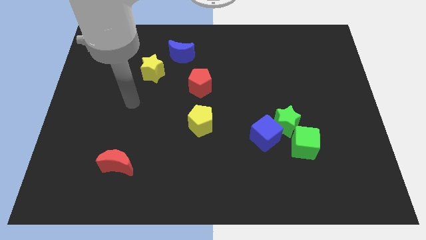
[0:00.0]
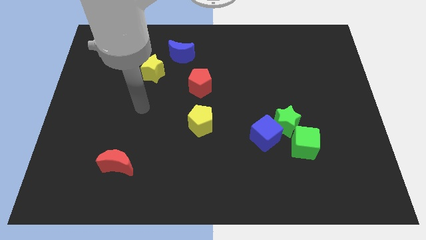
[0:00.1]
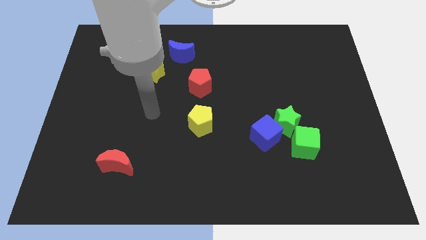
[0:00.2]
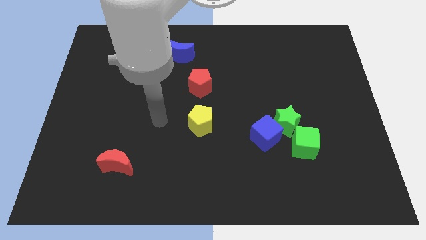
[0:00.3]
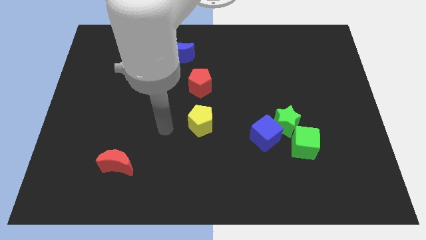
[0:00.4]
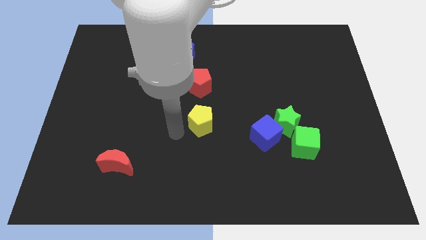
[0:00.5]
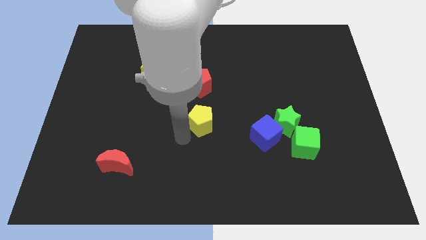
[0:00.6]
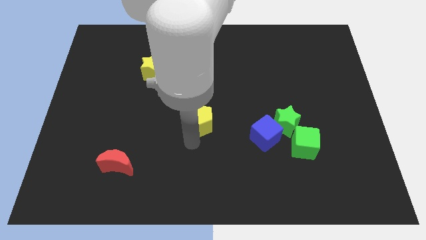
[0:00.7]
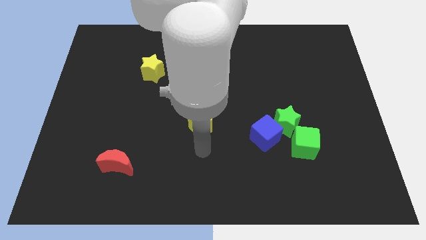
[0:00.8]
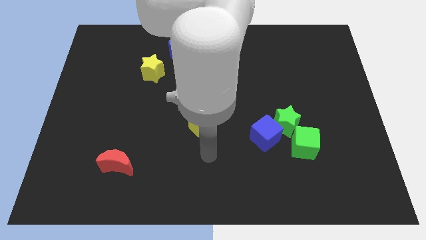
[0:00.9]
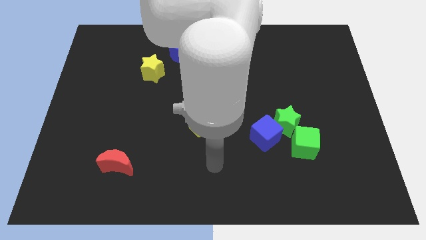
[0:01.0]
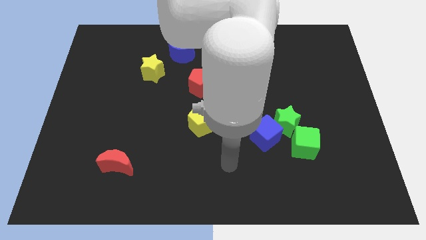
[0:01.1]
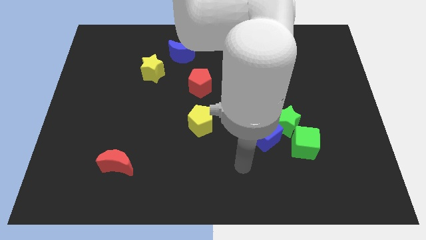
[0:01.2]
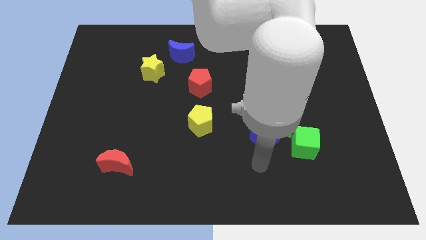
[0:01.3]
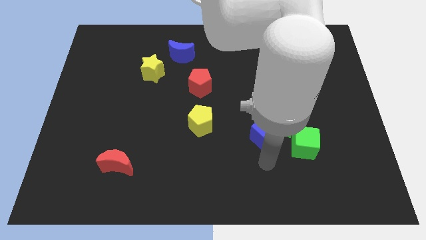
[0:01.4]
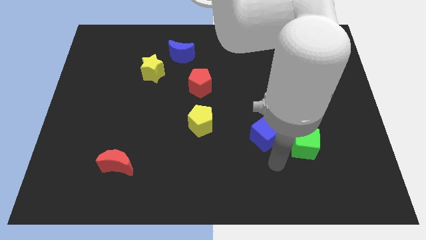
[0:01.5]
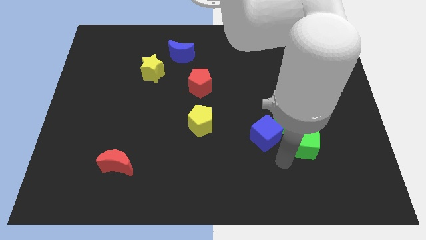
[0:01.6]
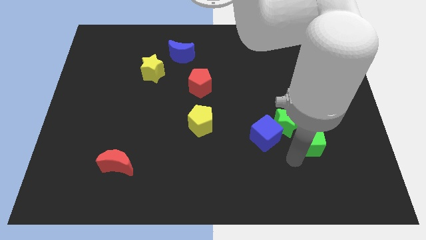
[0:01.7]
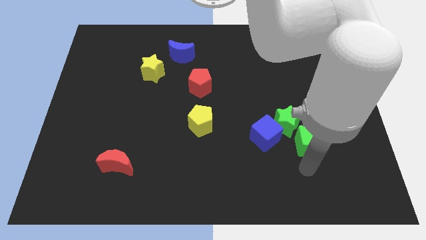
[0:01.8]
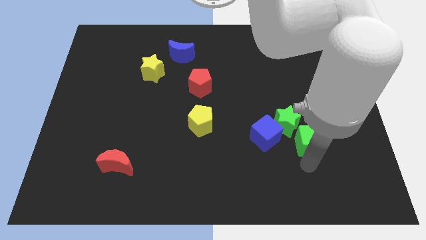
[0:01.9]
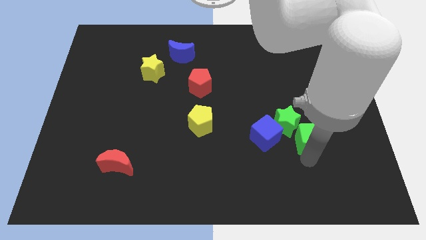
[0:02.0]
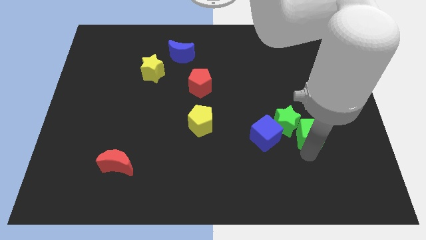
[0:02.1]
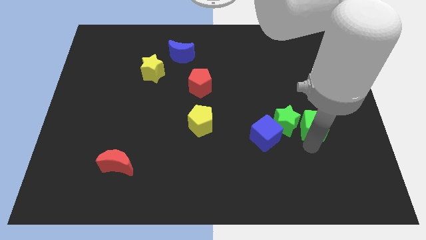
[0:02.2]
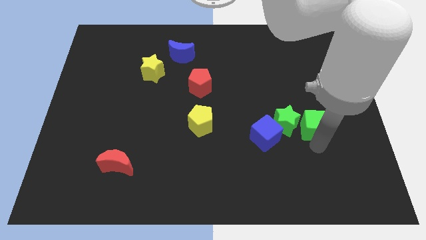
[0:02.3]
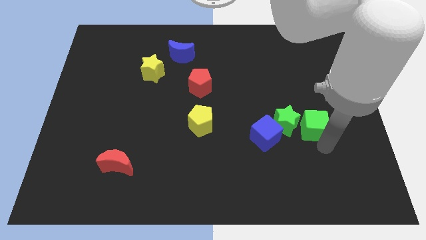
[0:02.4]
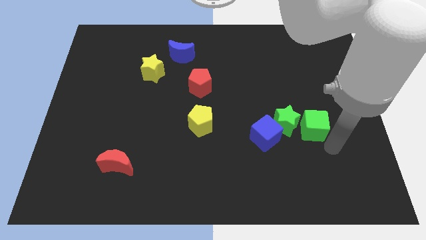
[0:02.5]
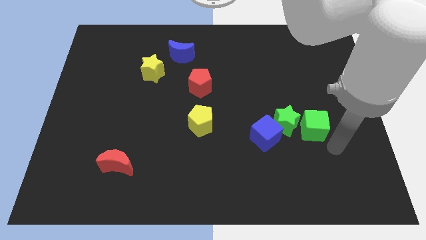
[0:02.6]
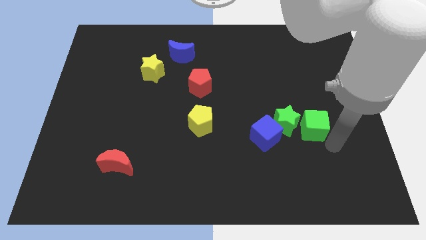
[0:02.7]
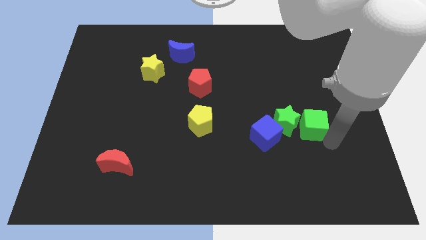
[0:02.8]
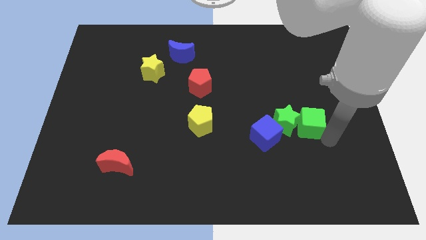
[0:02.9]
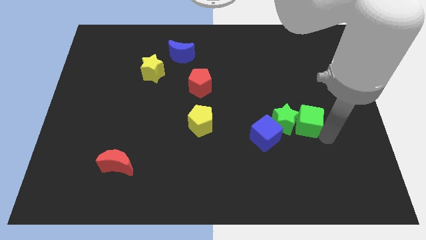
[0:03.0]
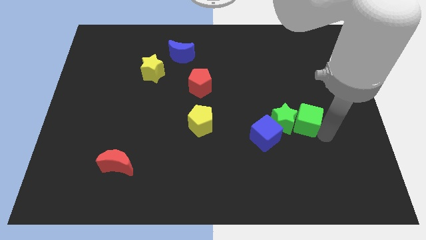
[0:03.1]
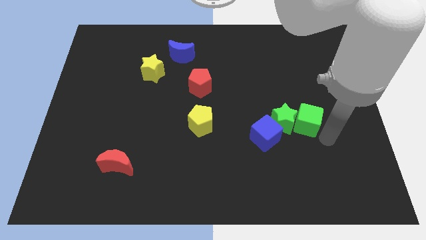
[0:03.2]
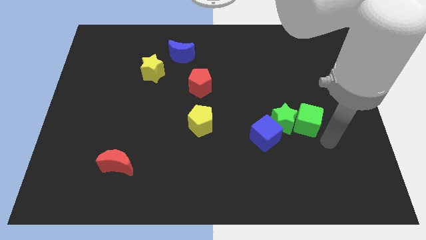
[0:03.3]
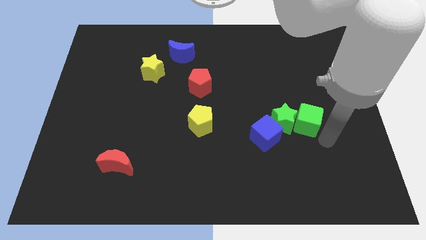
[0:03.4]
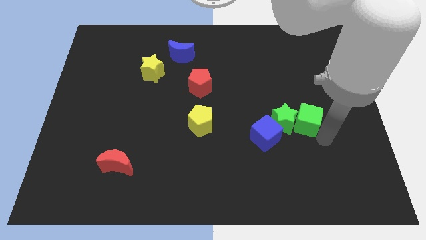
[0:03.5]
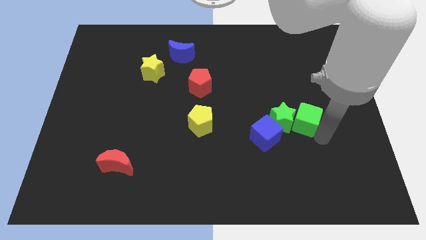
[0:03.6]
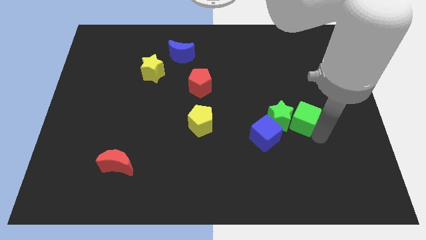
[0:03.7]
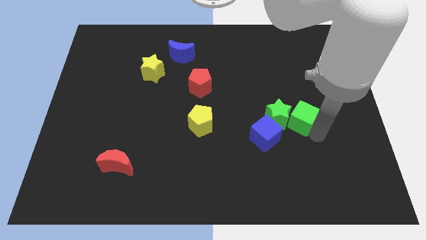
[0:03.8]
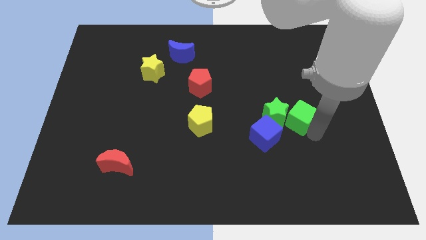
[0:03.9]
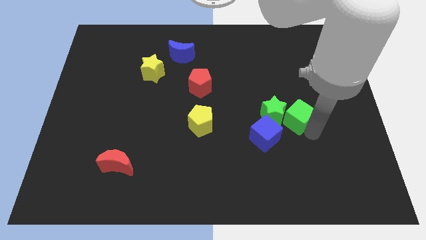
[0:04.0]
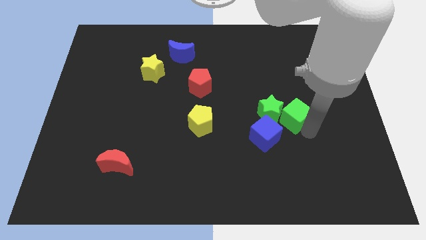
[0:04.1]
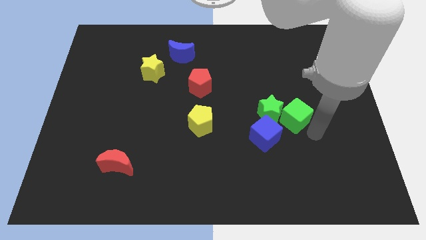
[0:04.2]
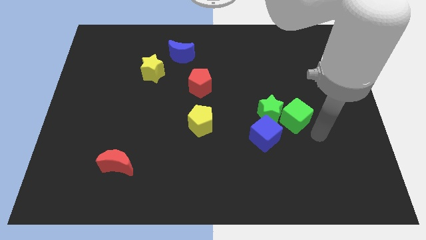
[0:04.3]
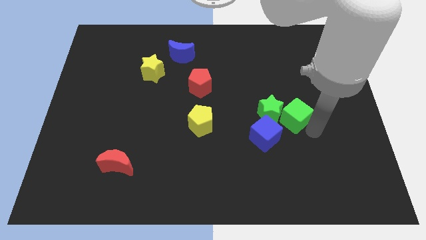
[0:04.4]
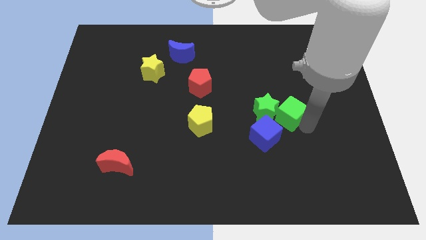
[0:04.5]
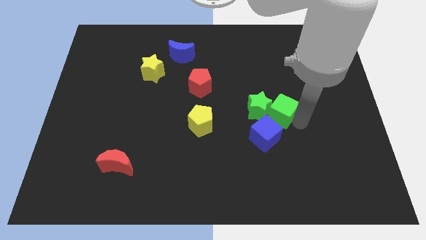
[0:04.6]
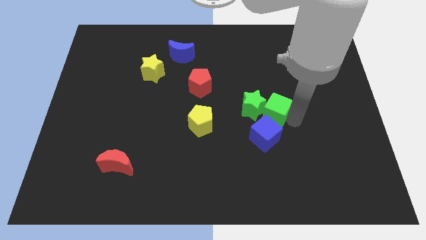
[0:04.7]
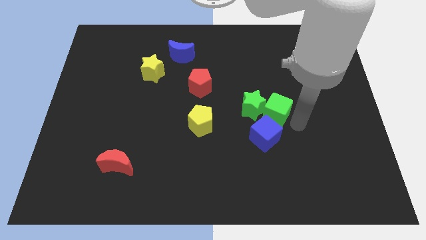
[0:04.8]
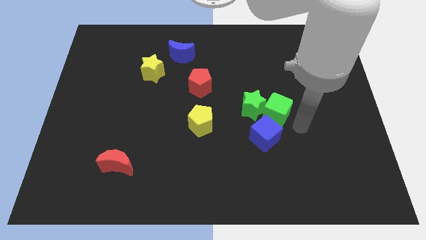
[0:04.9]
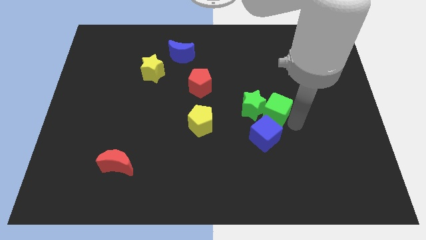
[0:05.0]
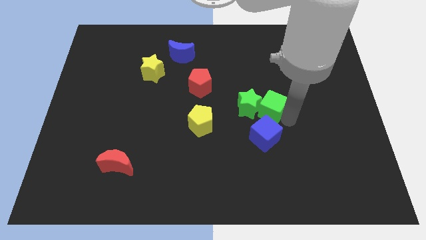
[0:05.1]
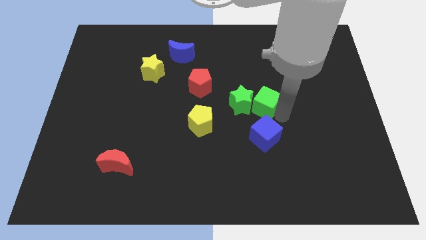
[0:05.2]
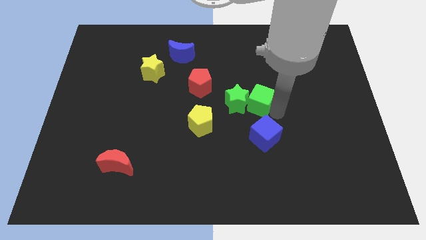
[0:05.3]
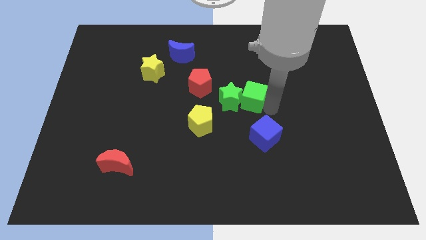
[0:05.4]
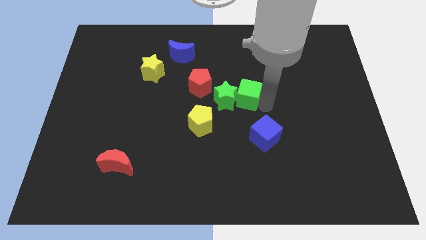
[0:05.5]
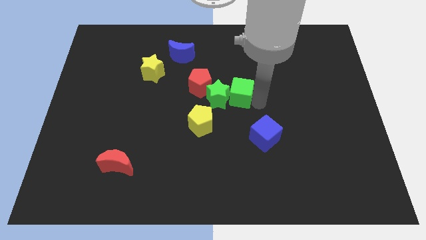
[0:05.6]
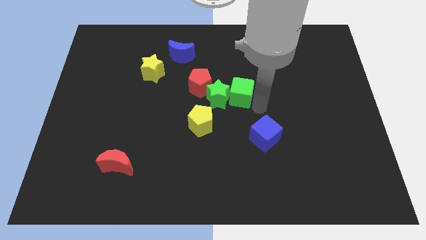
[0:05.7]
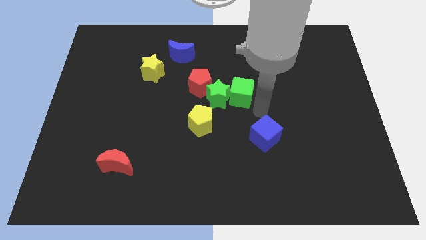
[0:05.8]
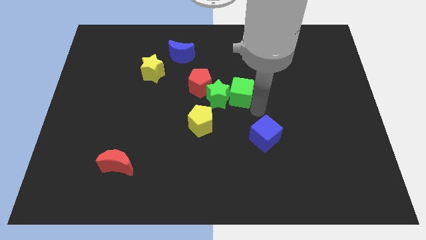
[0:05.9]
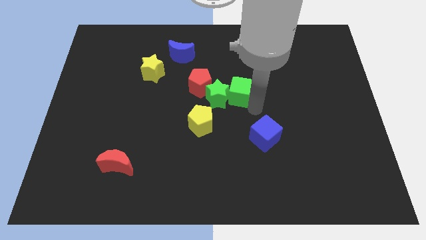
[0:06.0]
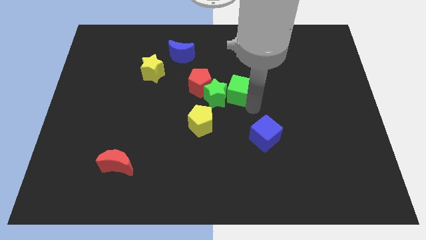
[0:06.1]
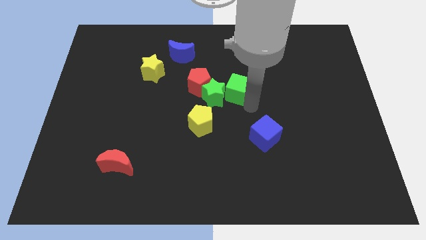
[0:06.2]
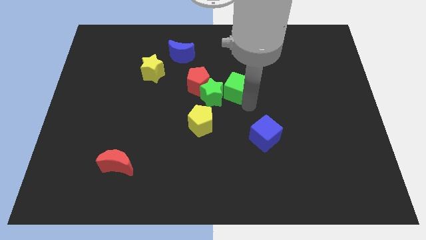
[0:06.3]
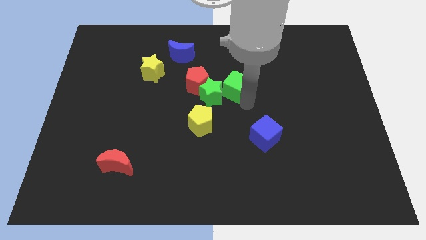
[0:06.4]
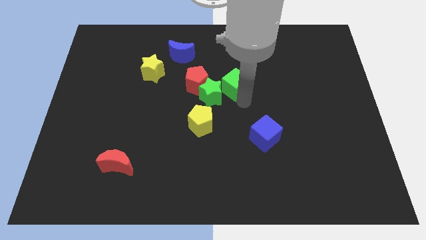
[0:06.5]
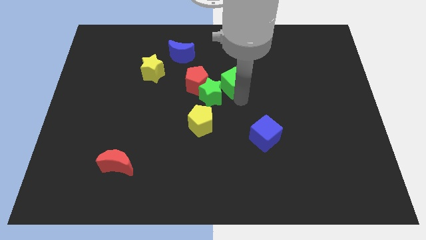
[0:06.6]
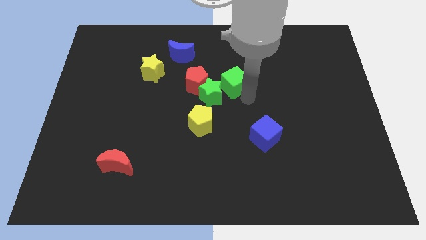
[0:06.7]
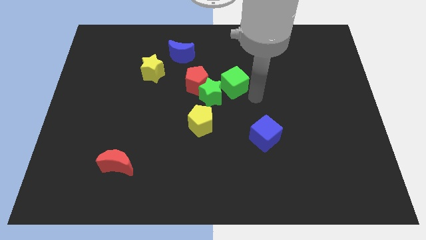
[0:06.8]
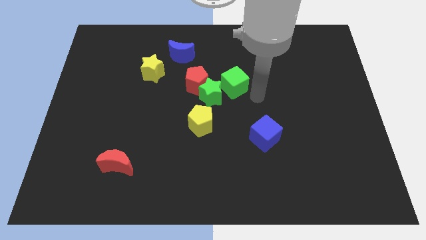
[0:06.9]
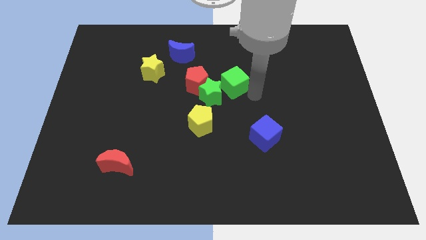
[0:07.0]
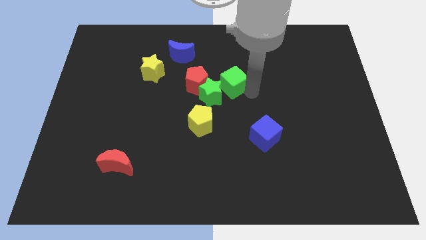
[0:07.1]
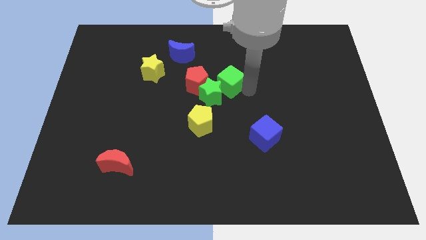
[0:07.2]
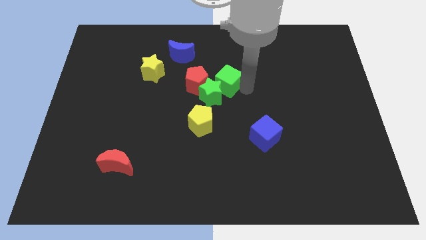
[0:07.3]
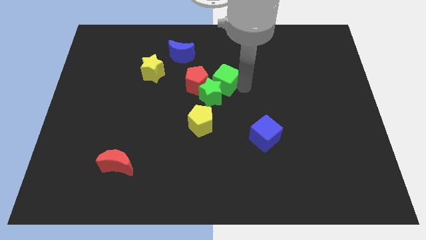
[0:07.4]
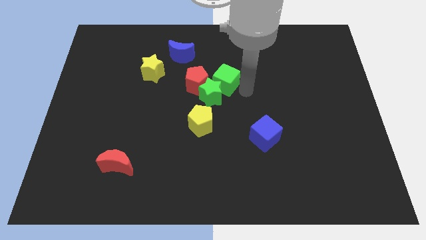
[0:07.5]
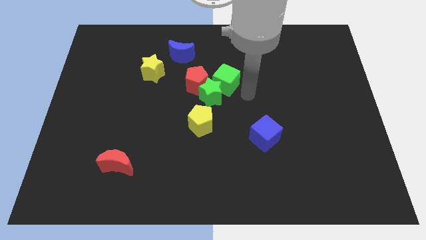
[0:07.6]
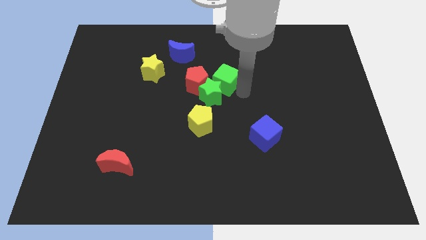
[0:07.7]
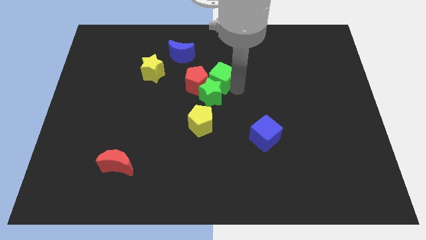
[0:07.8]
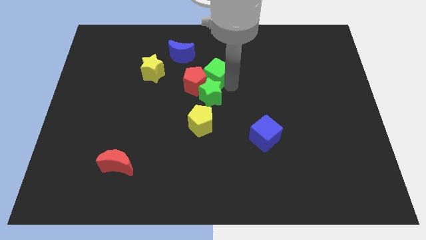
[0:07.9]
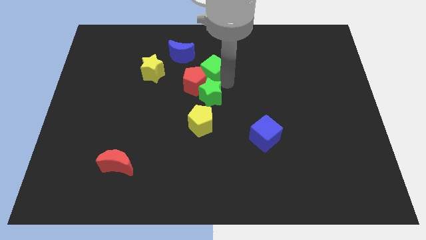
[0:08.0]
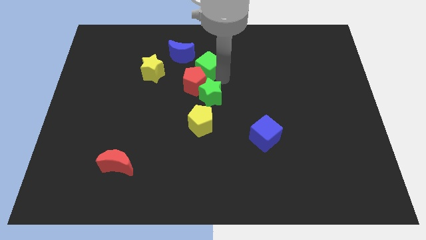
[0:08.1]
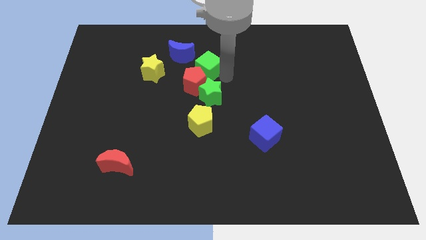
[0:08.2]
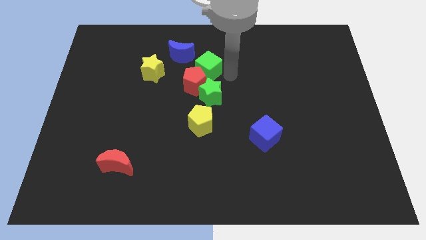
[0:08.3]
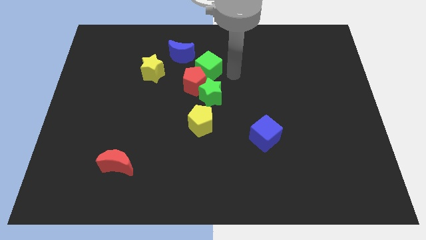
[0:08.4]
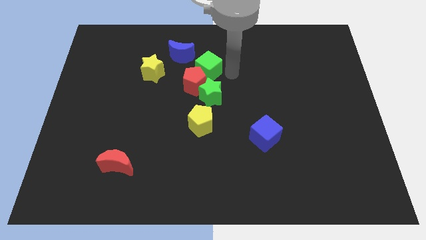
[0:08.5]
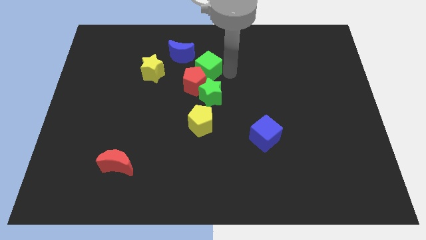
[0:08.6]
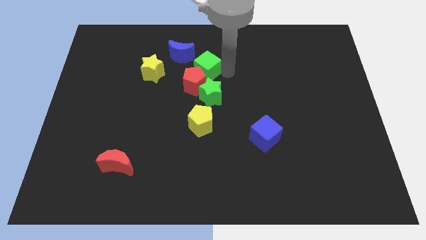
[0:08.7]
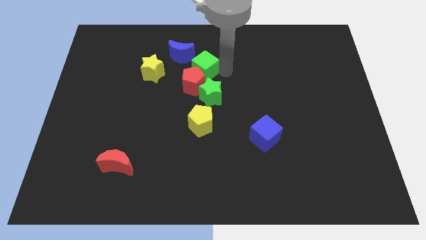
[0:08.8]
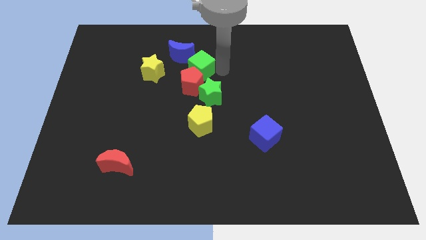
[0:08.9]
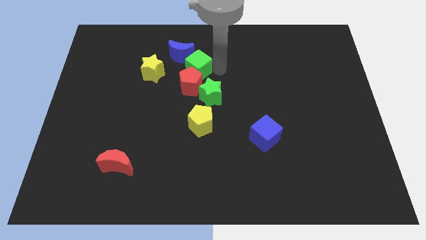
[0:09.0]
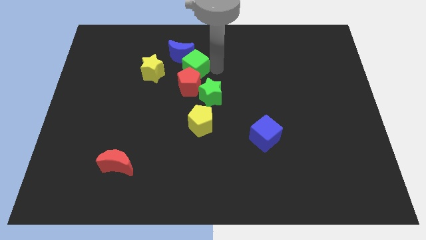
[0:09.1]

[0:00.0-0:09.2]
slide the green cube towards the blue moon
